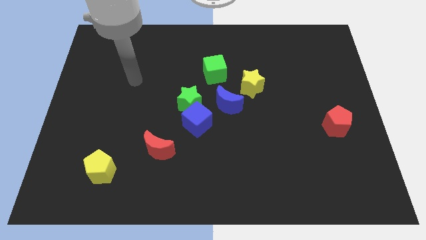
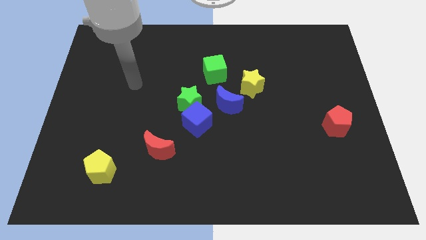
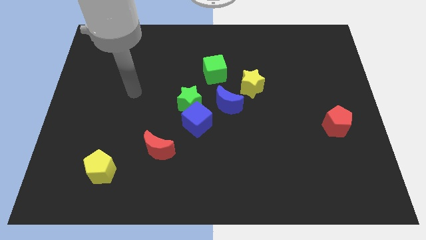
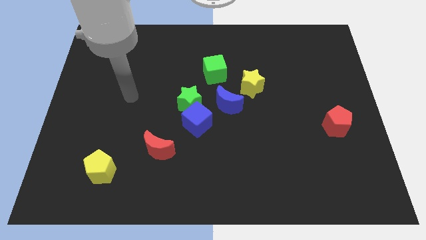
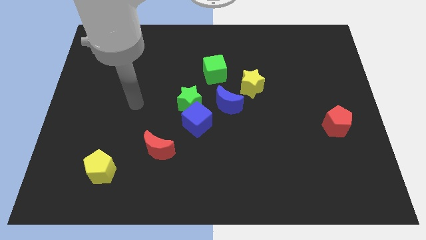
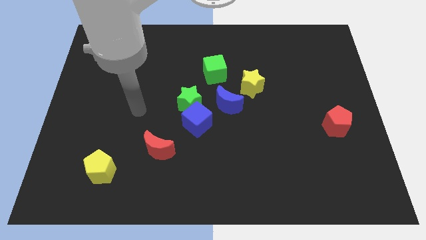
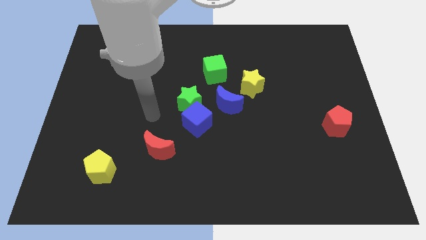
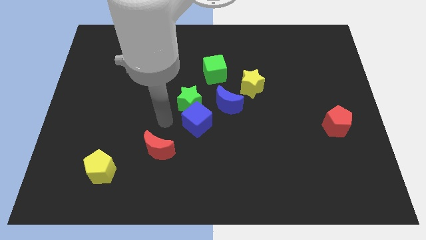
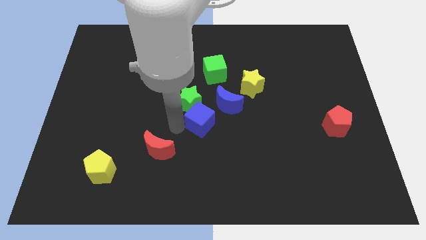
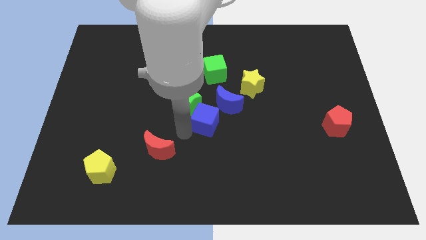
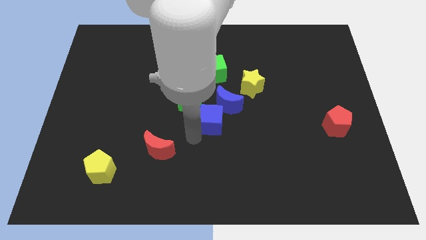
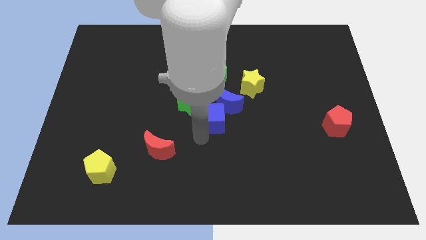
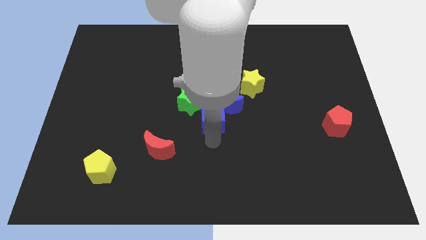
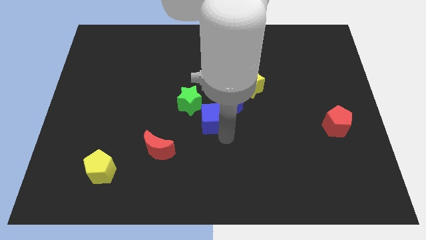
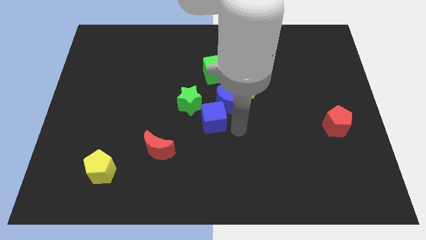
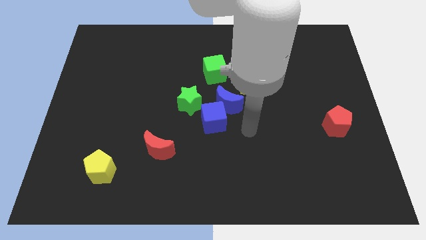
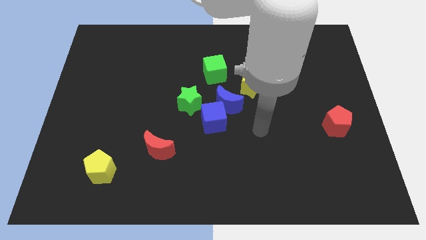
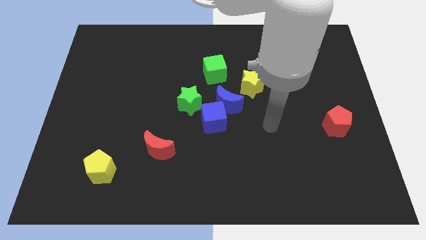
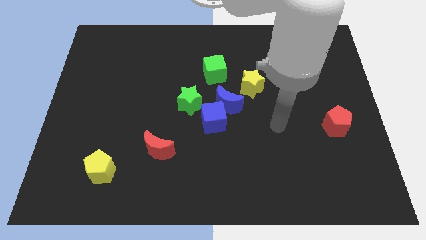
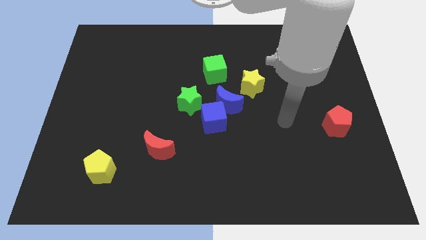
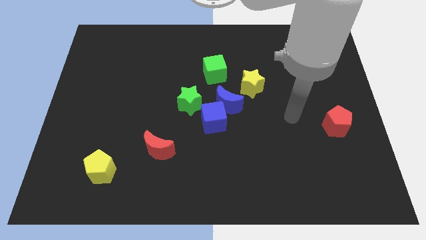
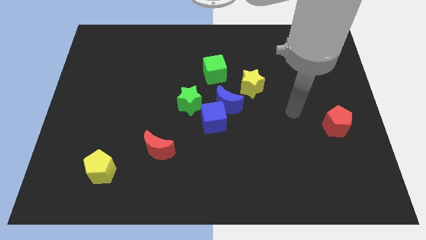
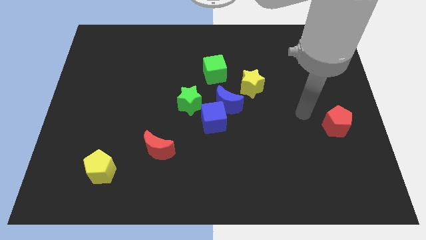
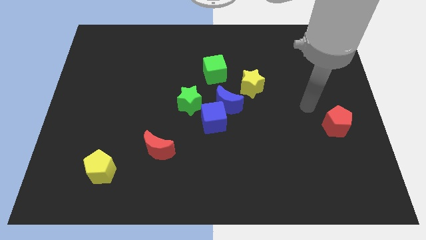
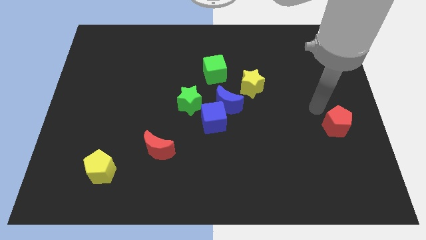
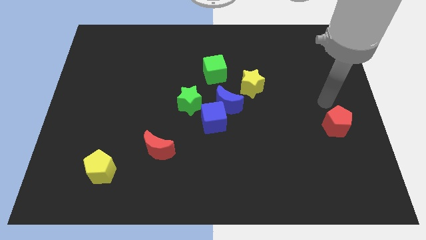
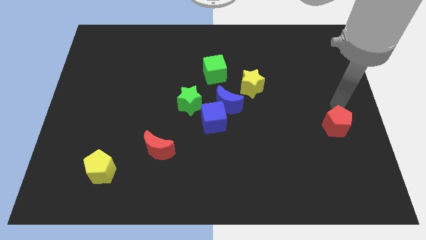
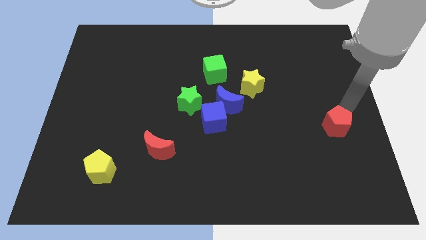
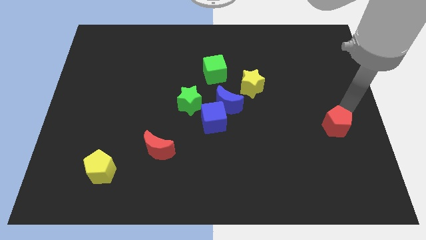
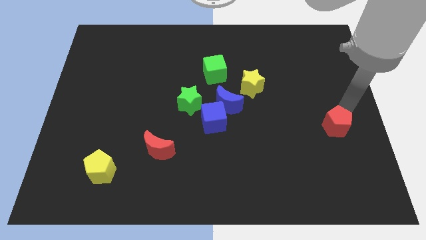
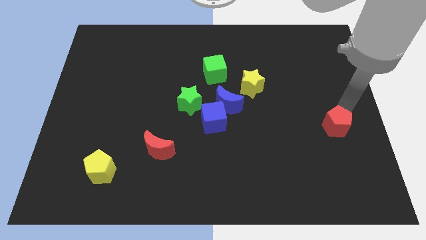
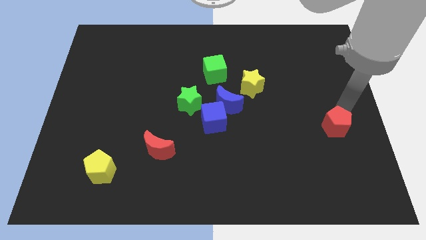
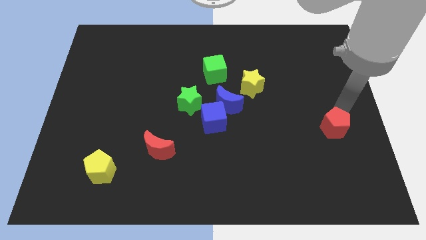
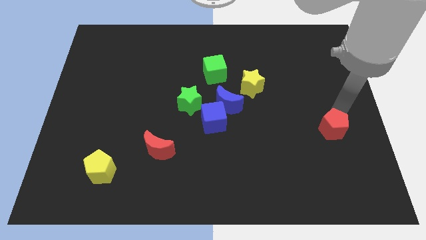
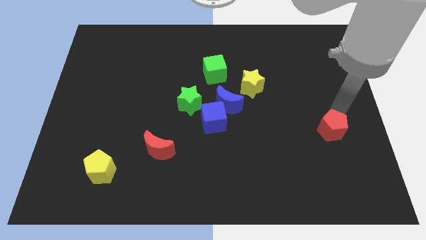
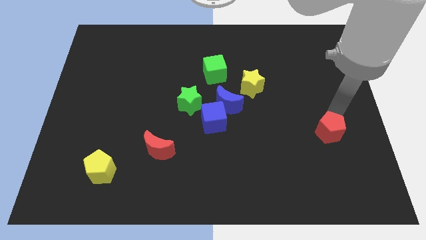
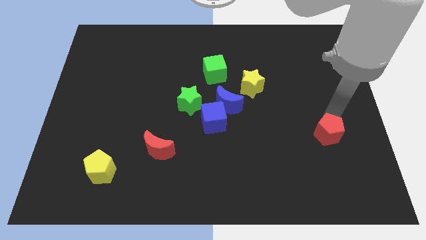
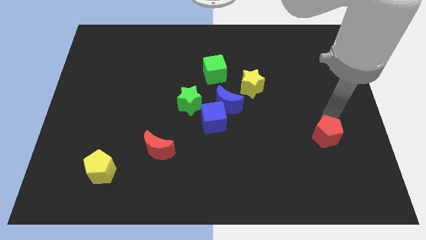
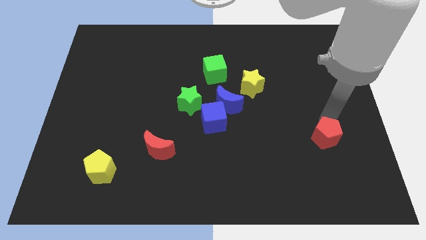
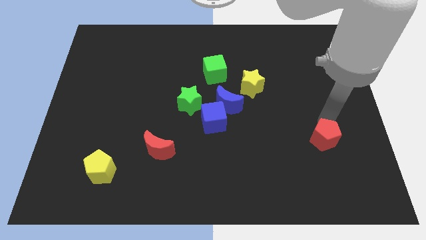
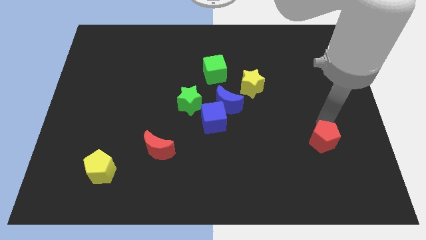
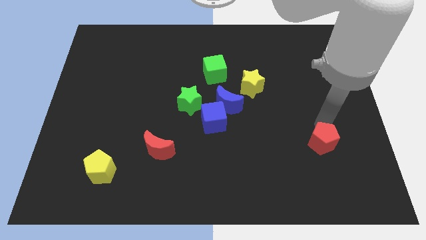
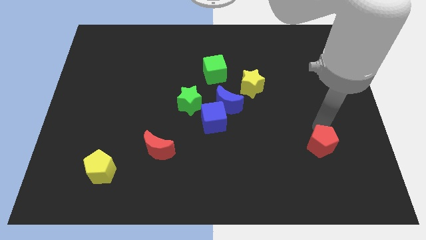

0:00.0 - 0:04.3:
slide the red pentagon down and then left slightly

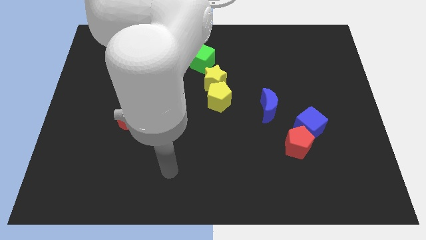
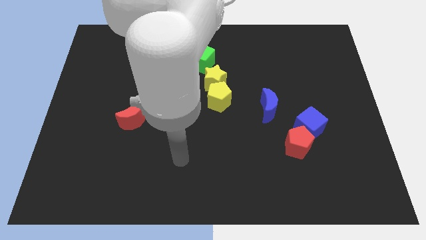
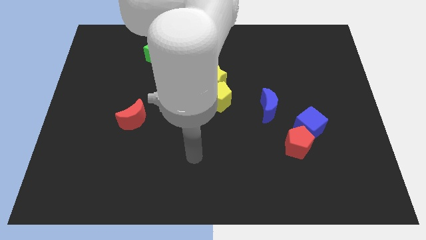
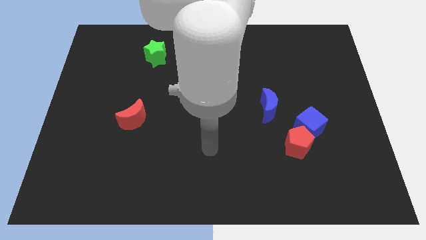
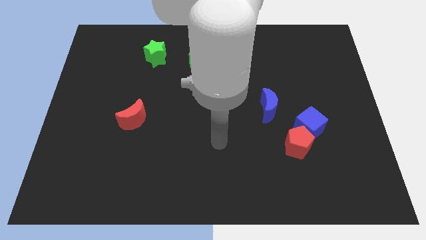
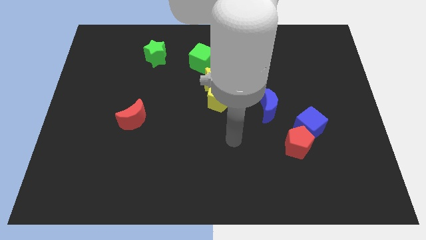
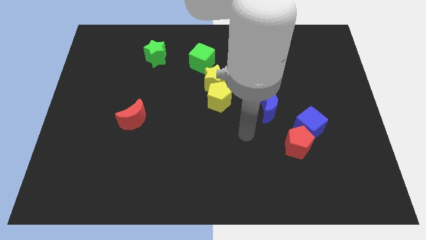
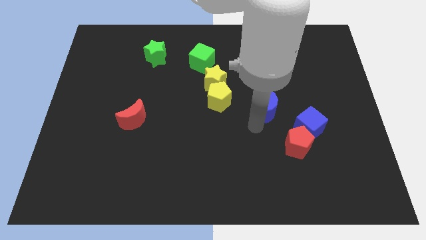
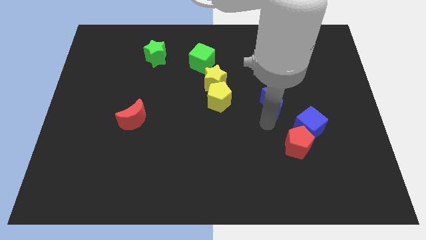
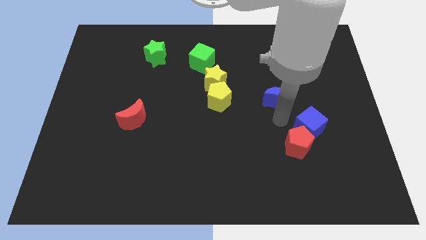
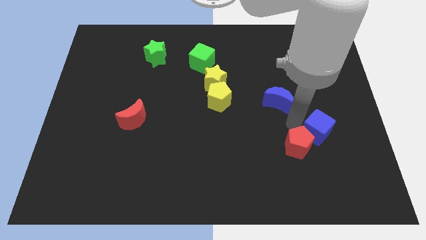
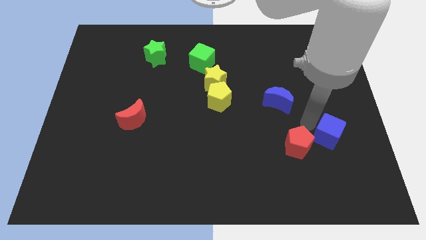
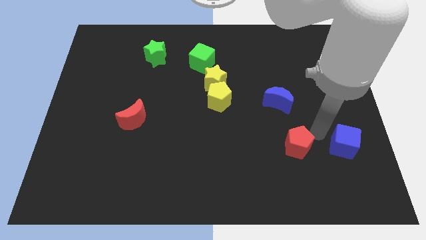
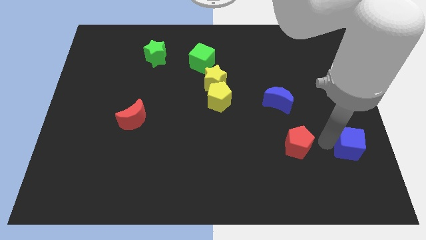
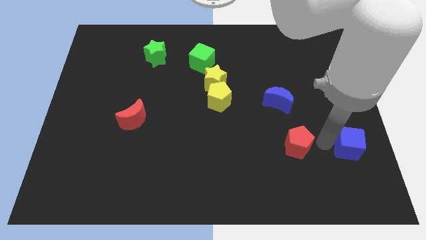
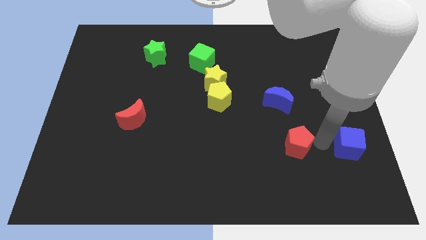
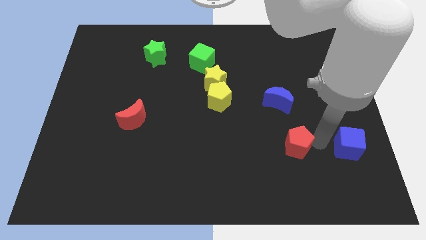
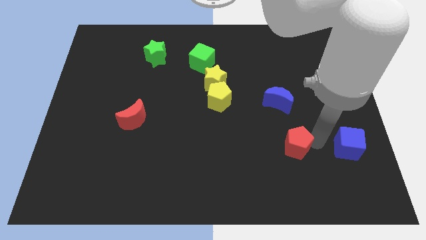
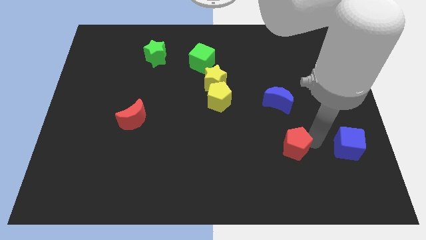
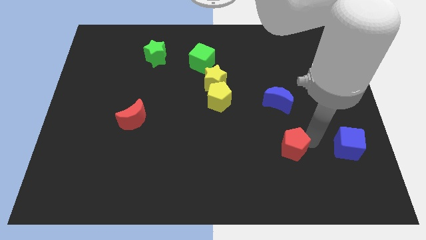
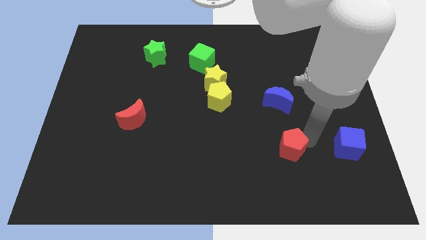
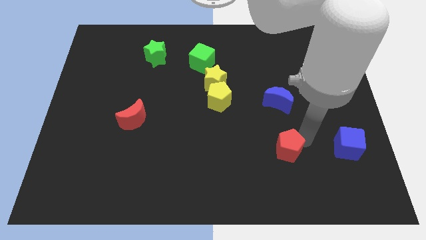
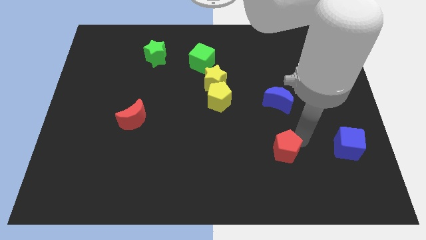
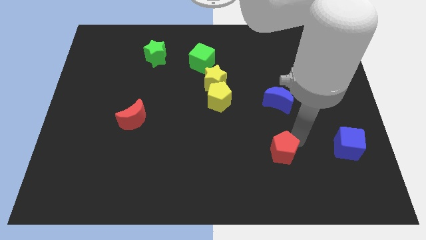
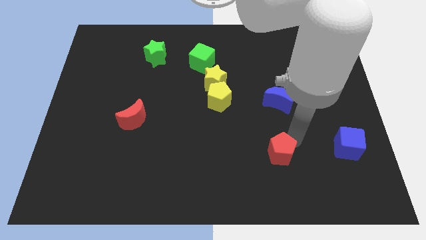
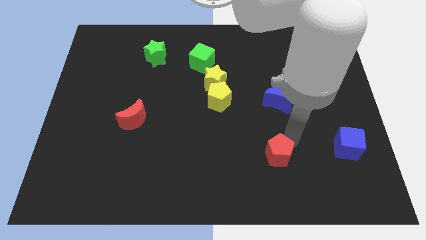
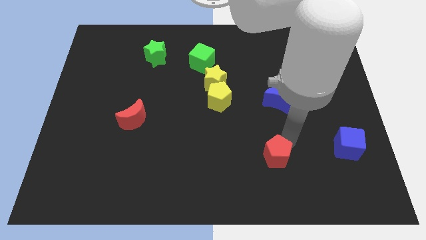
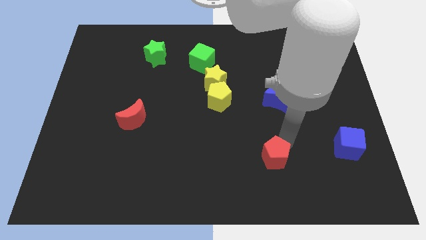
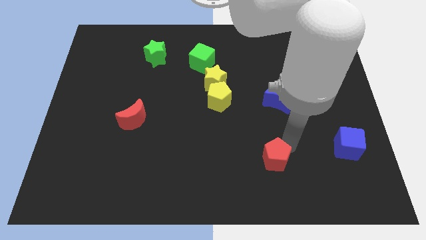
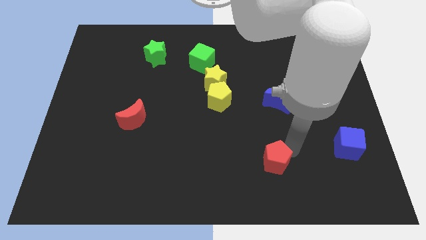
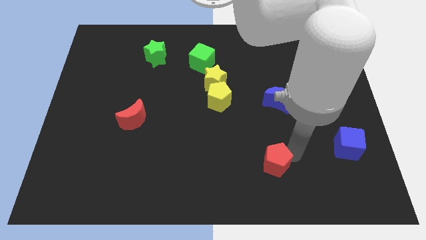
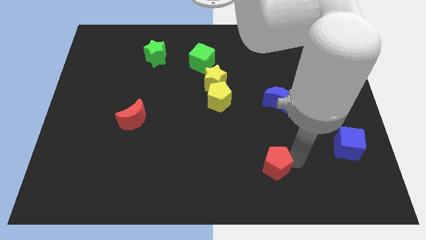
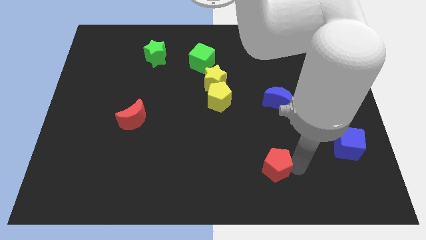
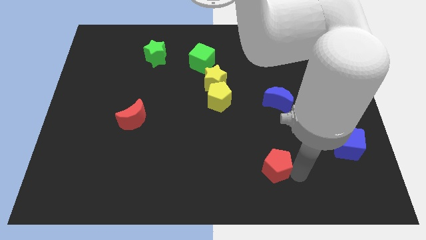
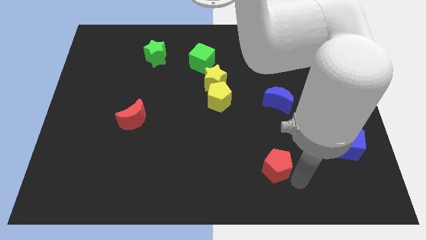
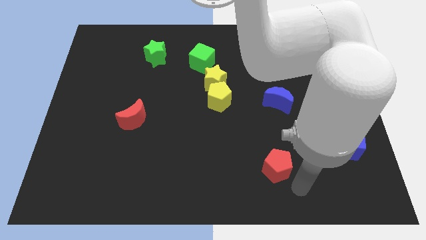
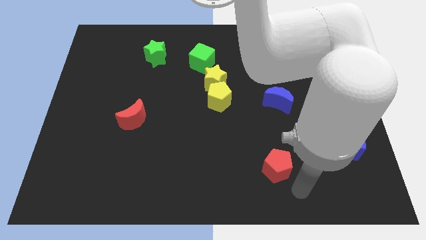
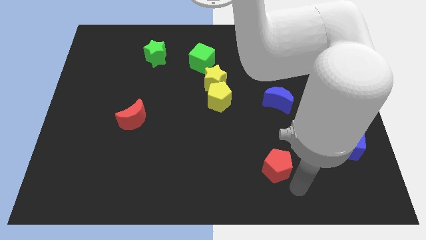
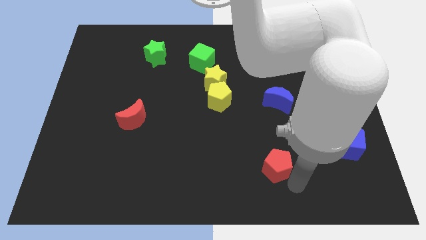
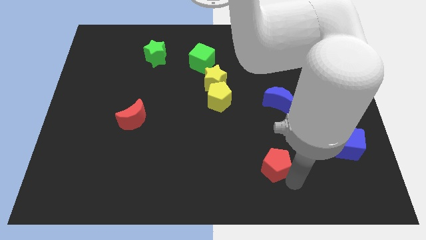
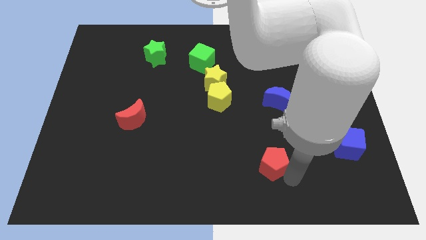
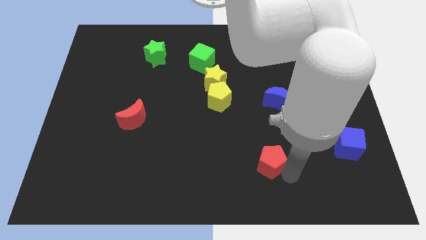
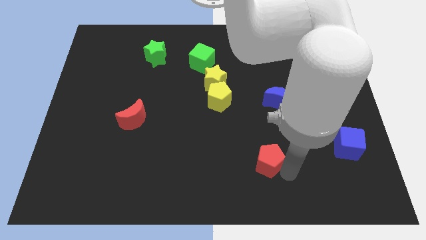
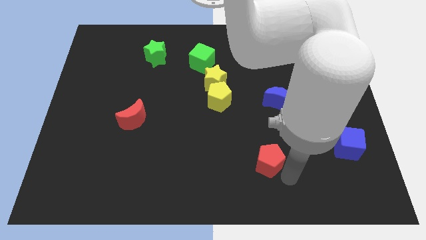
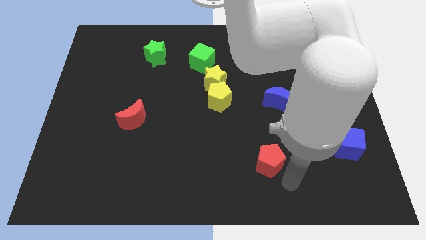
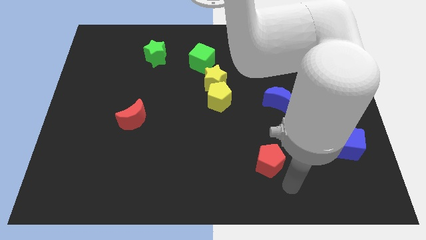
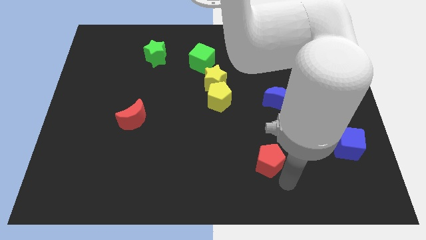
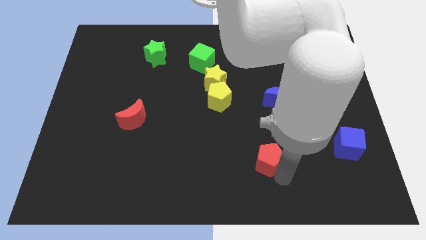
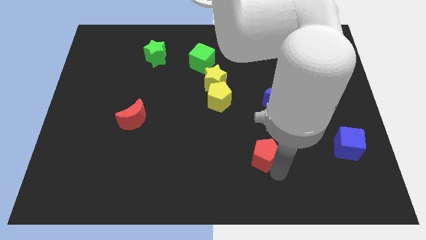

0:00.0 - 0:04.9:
move the red pentagon a bit to the left
